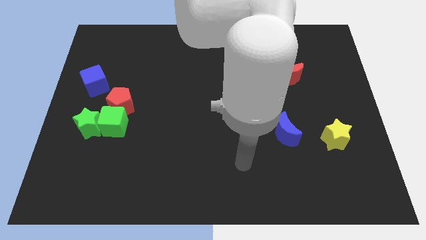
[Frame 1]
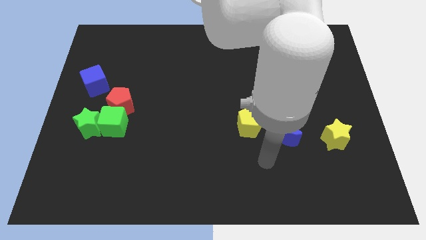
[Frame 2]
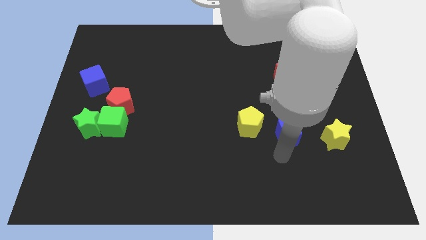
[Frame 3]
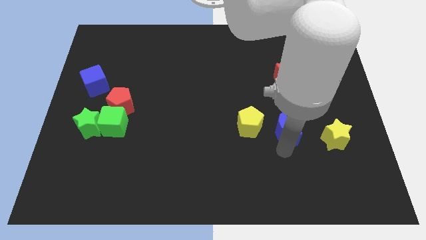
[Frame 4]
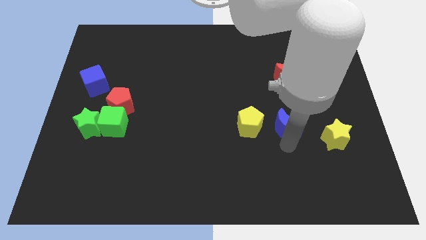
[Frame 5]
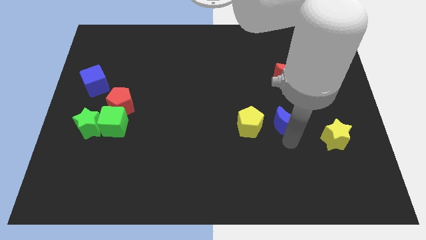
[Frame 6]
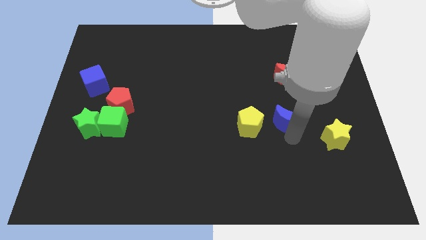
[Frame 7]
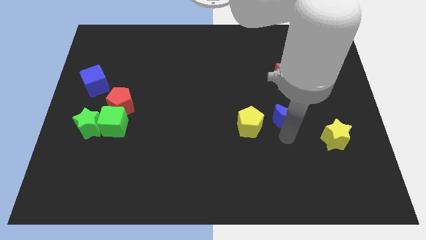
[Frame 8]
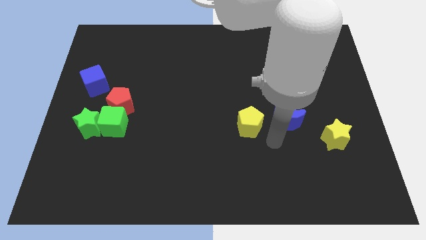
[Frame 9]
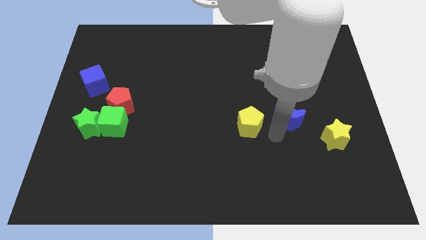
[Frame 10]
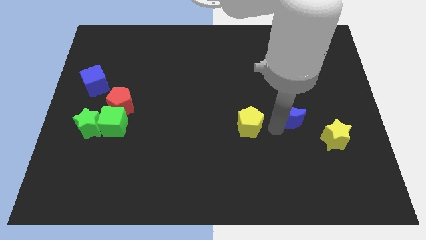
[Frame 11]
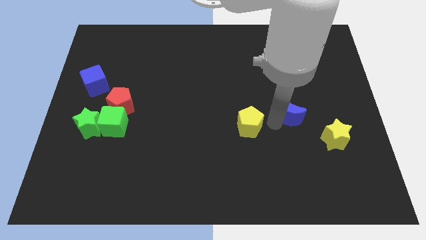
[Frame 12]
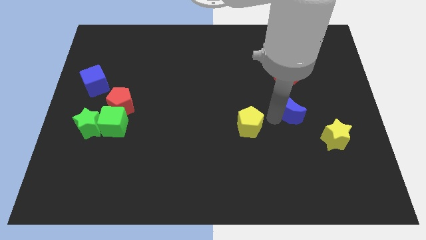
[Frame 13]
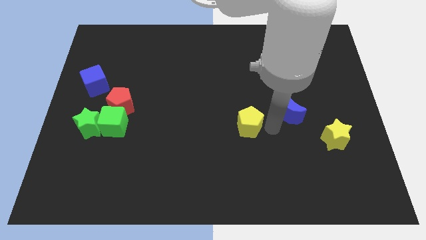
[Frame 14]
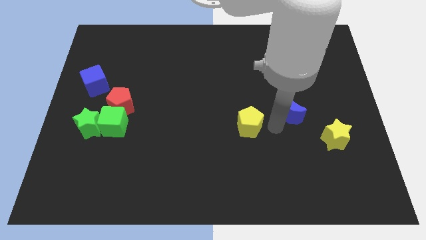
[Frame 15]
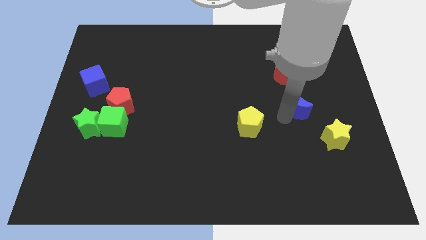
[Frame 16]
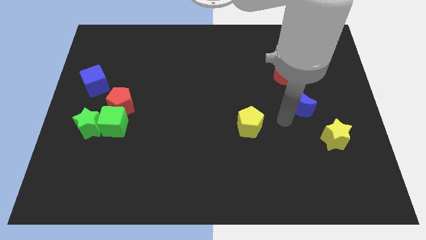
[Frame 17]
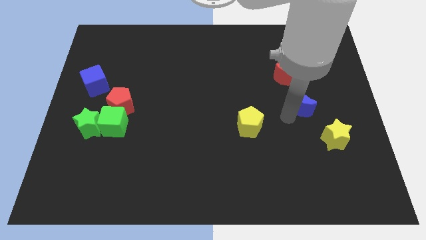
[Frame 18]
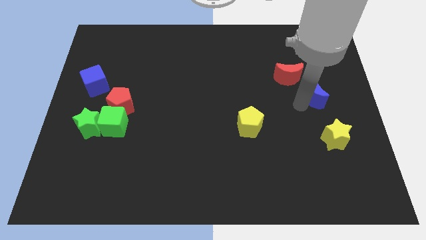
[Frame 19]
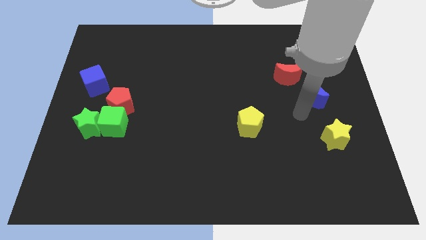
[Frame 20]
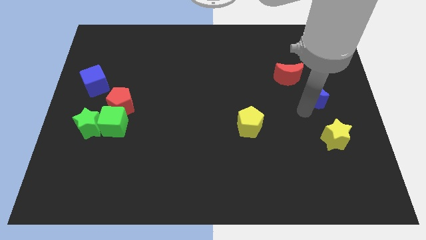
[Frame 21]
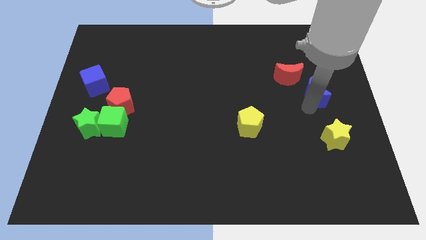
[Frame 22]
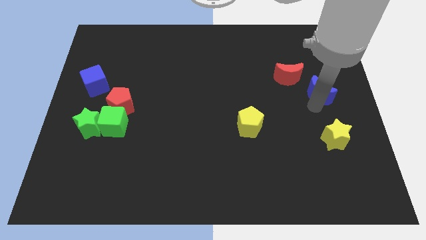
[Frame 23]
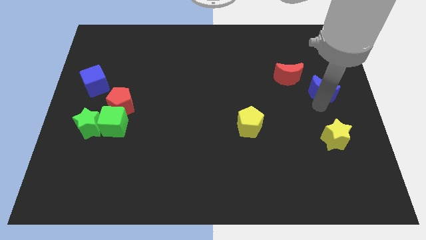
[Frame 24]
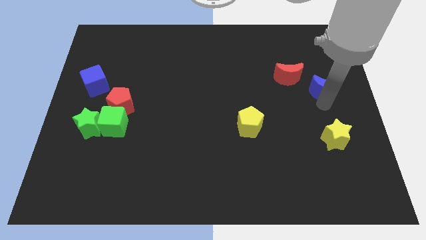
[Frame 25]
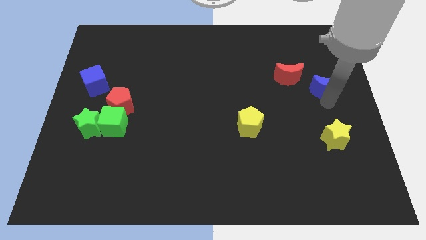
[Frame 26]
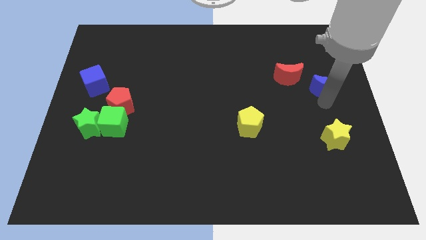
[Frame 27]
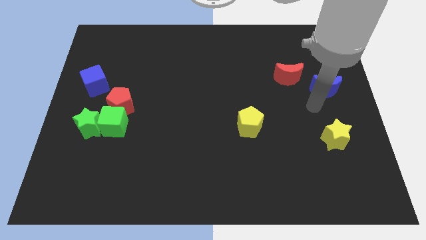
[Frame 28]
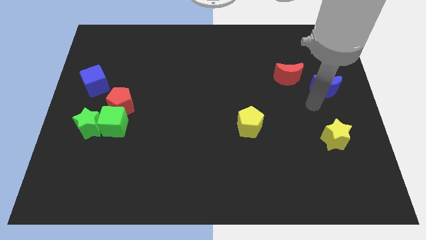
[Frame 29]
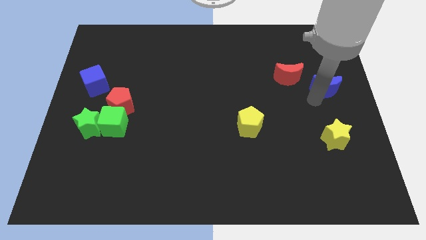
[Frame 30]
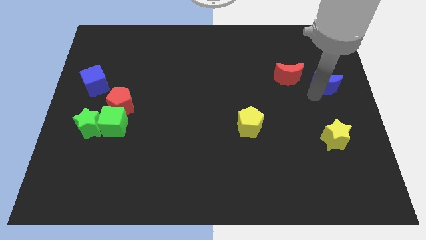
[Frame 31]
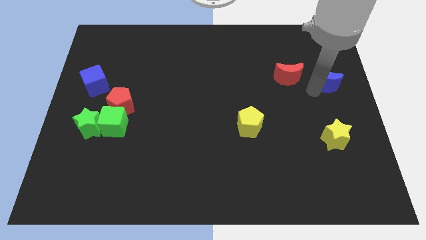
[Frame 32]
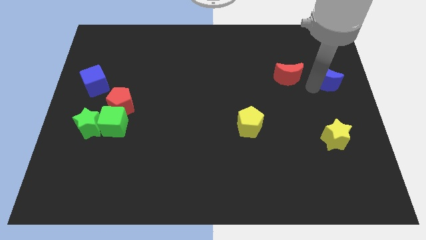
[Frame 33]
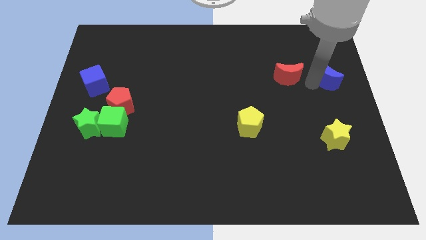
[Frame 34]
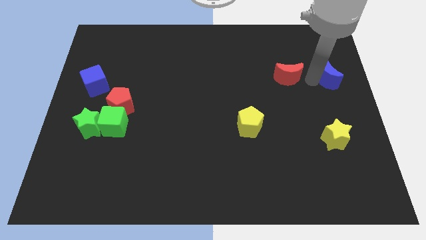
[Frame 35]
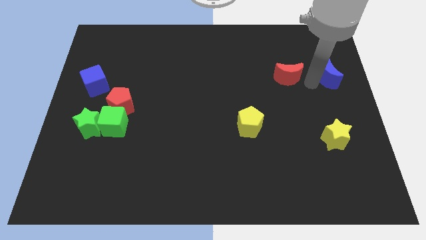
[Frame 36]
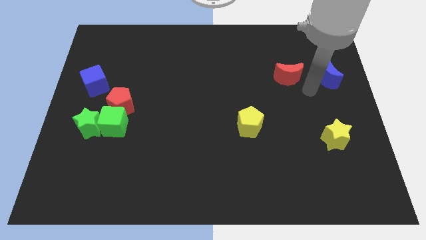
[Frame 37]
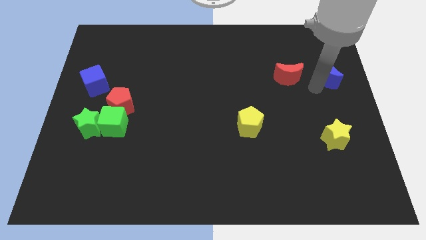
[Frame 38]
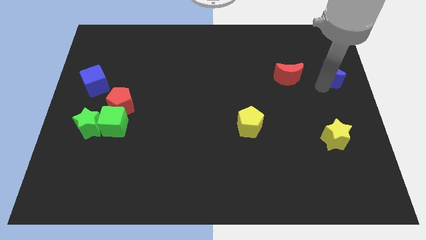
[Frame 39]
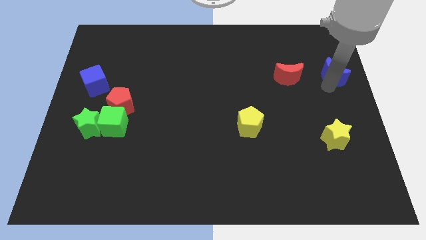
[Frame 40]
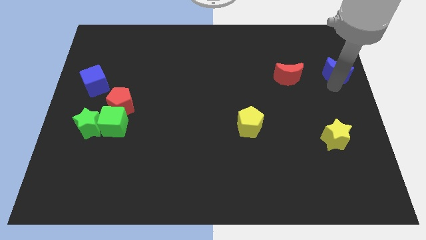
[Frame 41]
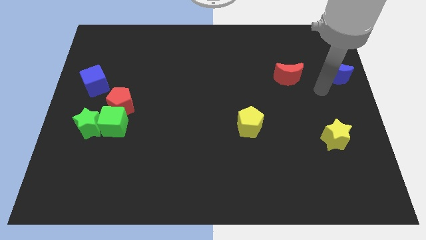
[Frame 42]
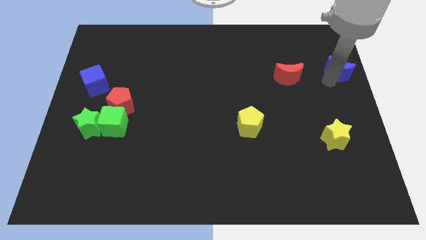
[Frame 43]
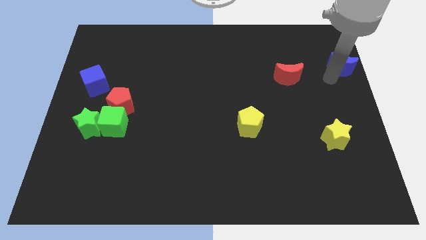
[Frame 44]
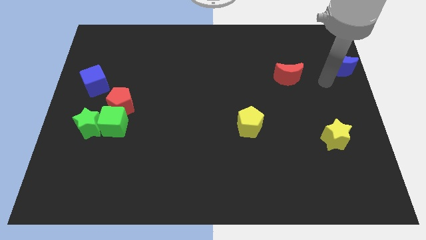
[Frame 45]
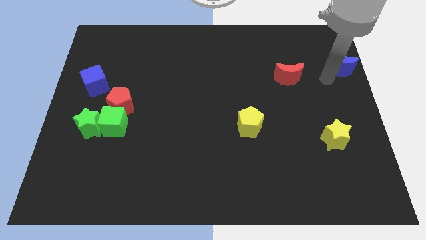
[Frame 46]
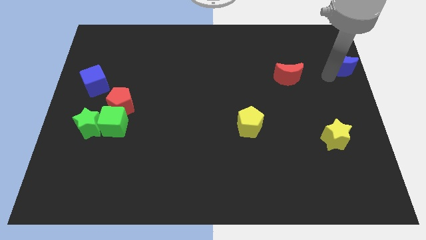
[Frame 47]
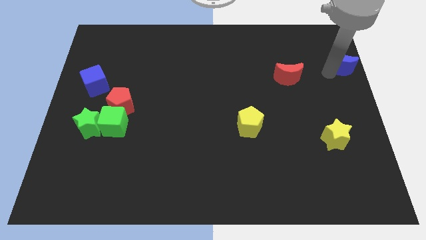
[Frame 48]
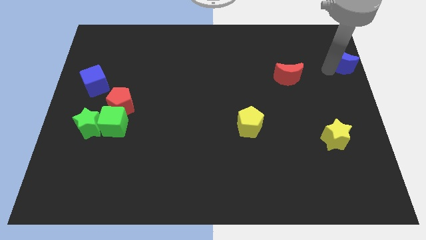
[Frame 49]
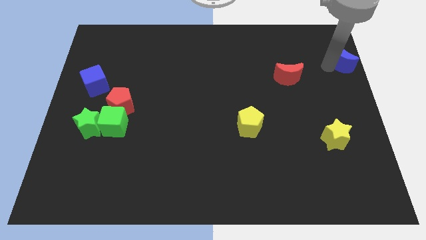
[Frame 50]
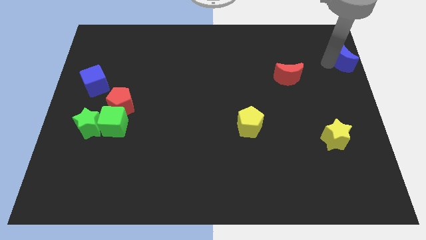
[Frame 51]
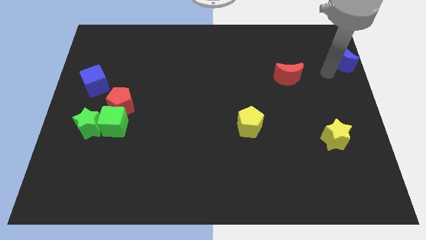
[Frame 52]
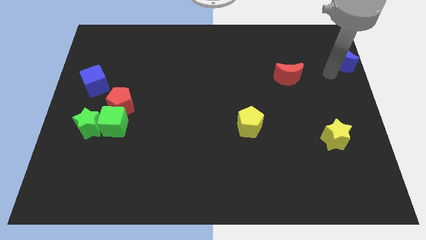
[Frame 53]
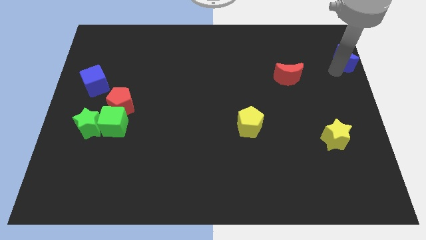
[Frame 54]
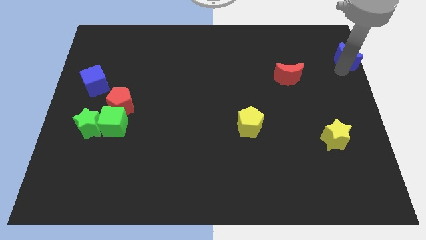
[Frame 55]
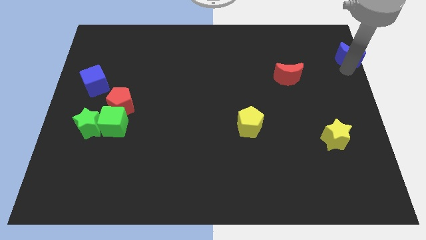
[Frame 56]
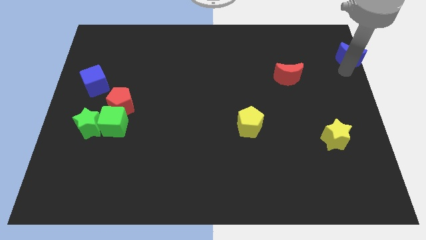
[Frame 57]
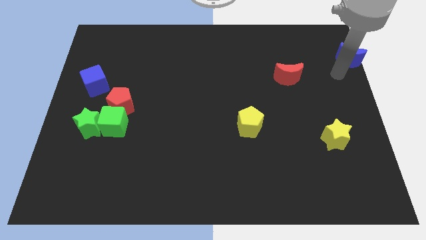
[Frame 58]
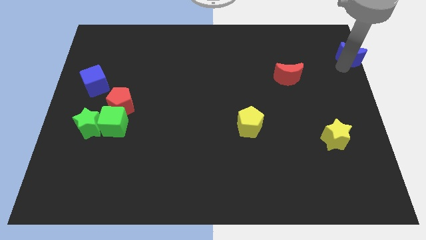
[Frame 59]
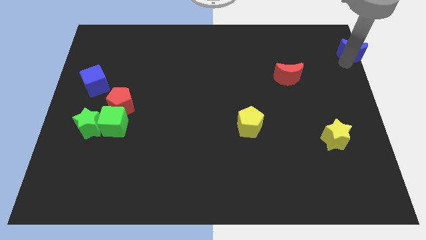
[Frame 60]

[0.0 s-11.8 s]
put the blue moon to the top right
